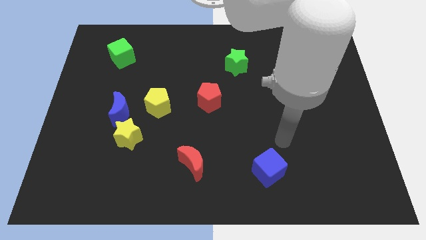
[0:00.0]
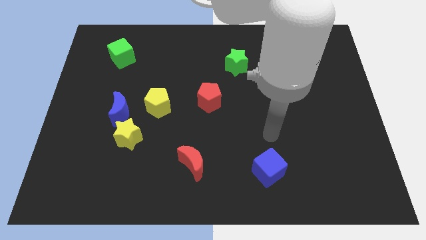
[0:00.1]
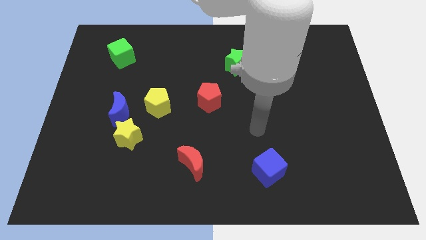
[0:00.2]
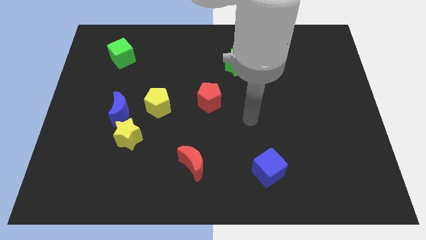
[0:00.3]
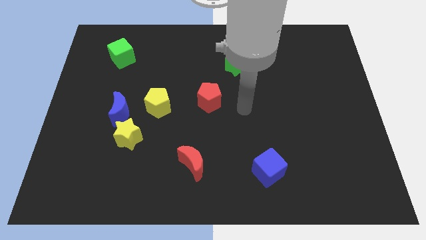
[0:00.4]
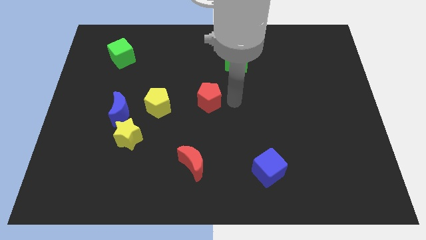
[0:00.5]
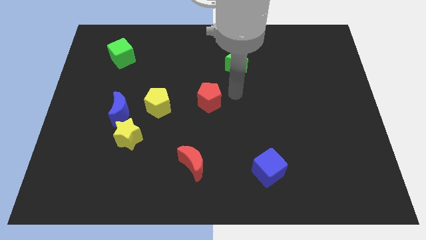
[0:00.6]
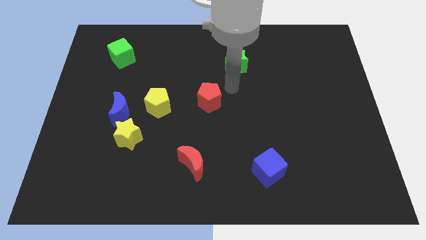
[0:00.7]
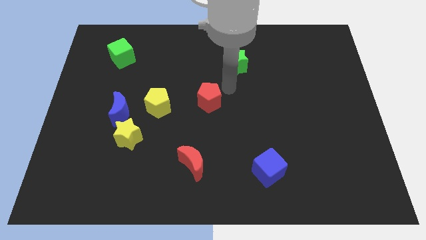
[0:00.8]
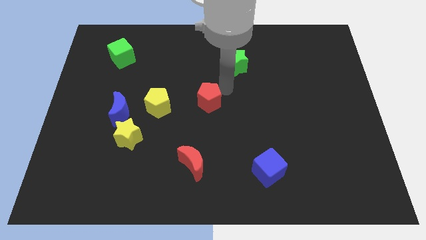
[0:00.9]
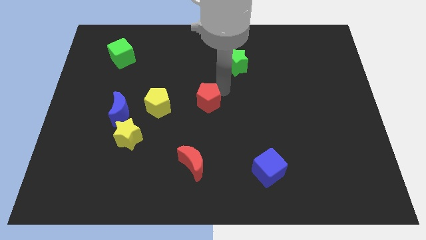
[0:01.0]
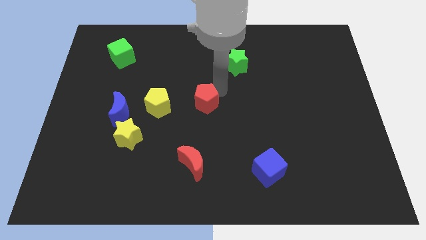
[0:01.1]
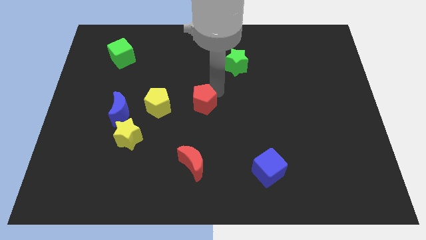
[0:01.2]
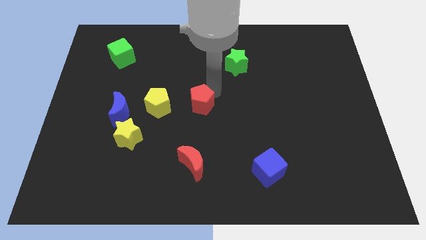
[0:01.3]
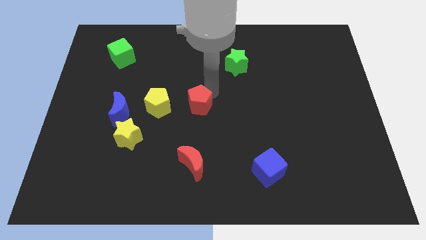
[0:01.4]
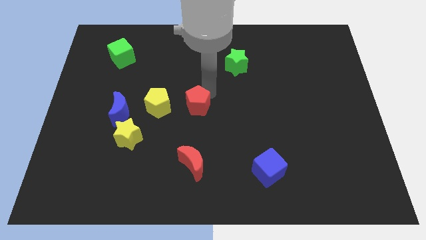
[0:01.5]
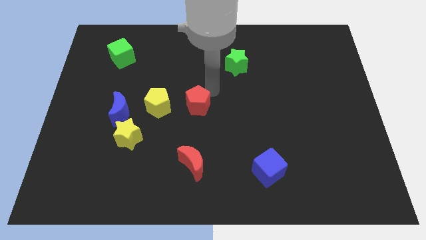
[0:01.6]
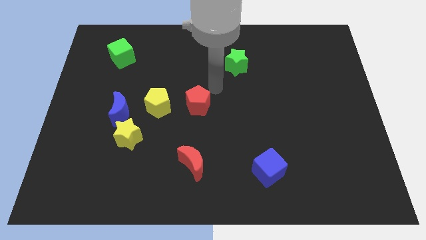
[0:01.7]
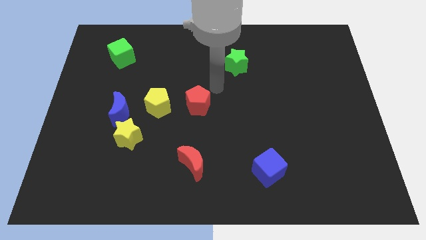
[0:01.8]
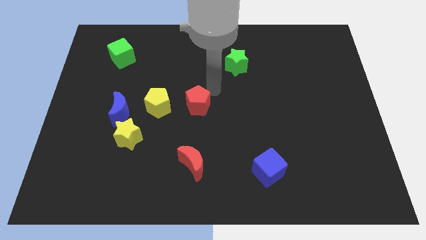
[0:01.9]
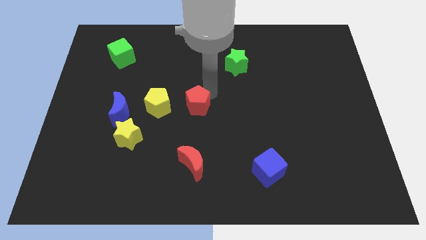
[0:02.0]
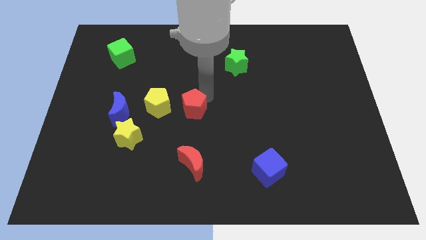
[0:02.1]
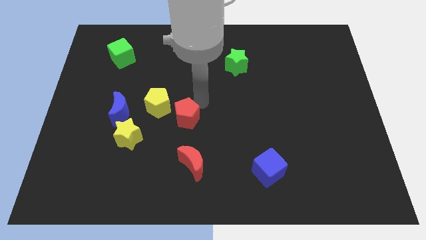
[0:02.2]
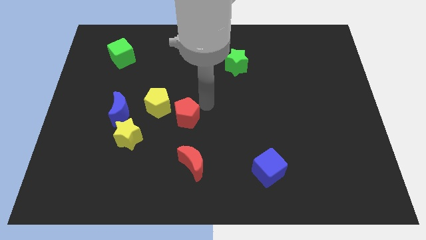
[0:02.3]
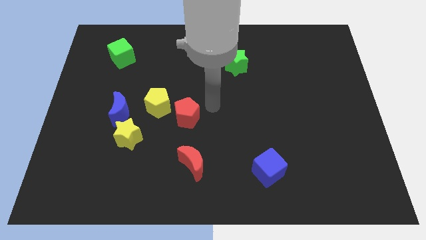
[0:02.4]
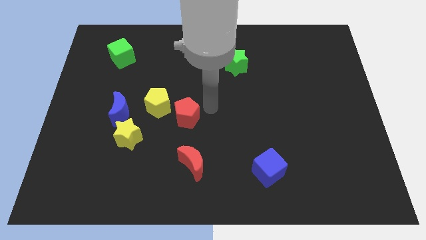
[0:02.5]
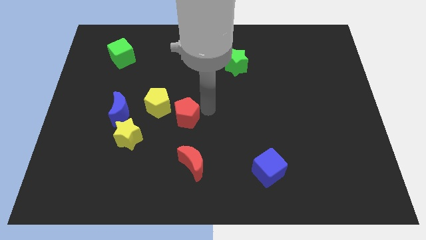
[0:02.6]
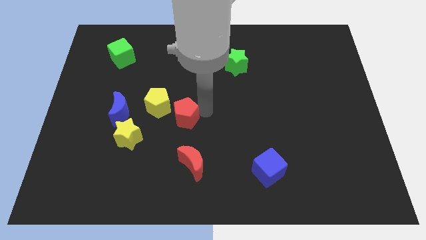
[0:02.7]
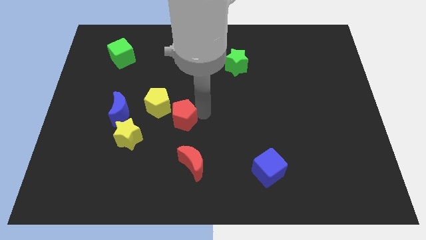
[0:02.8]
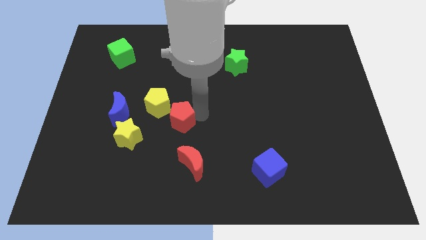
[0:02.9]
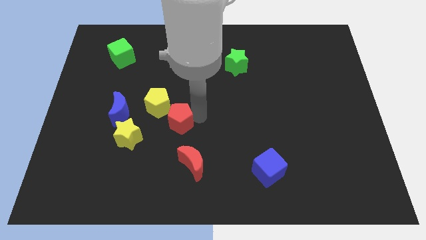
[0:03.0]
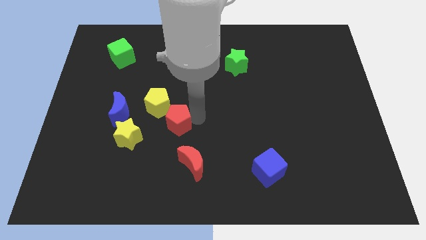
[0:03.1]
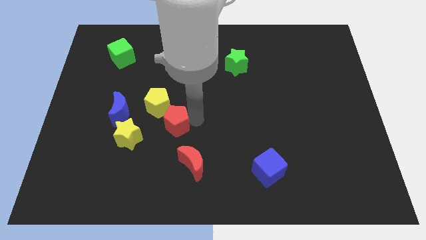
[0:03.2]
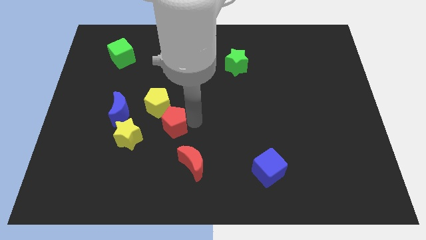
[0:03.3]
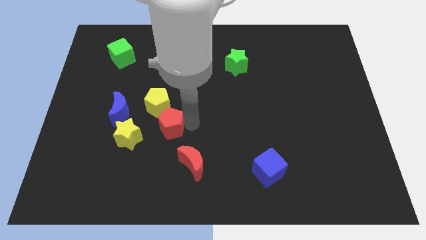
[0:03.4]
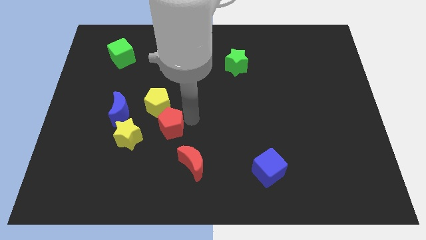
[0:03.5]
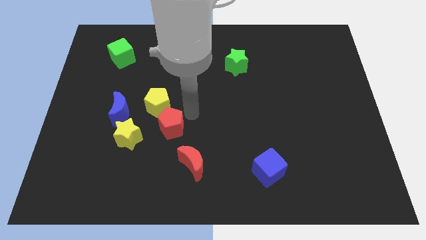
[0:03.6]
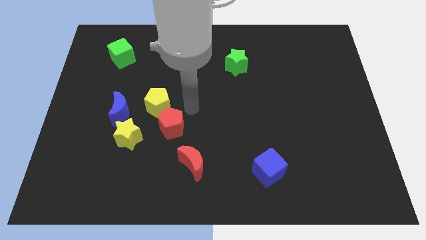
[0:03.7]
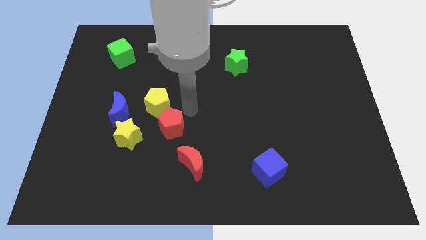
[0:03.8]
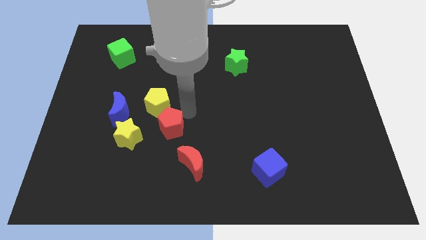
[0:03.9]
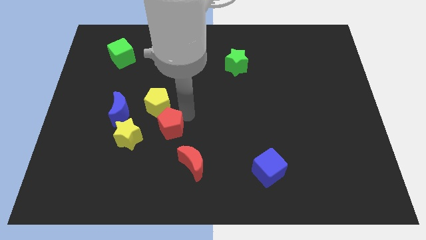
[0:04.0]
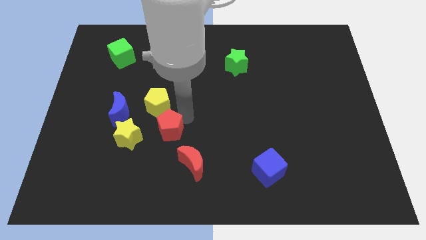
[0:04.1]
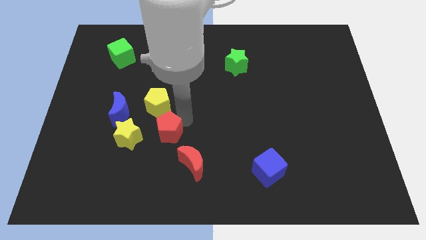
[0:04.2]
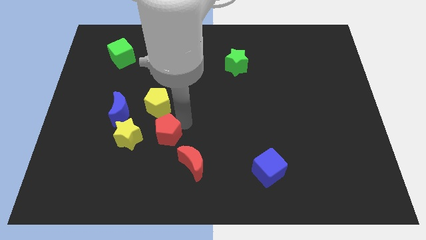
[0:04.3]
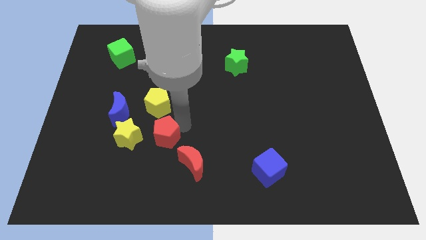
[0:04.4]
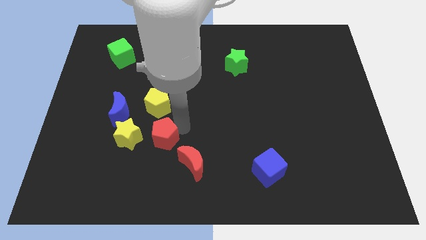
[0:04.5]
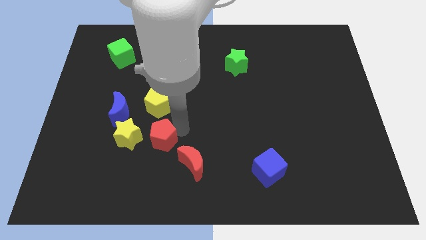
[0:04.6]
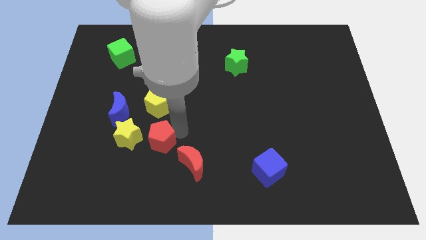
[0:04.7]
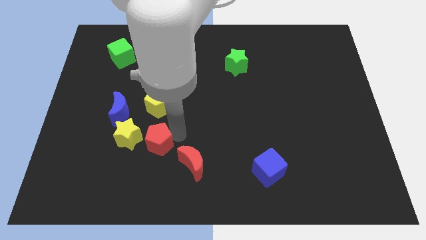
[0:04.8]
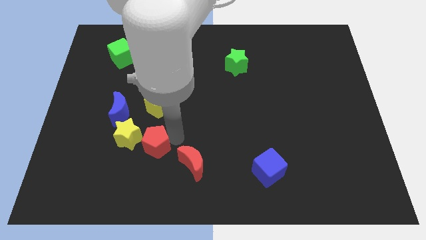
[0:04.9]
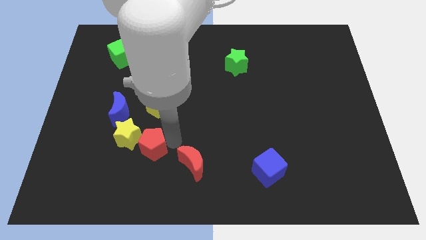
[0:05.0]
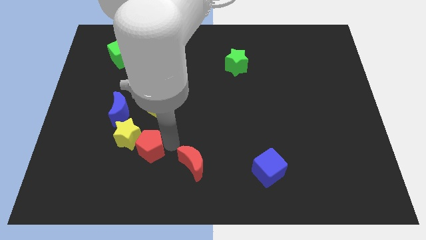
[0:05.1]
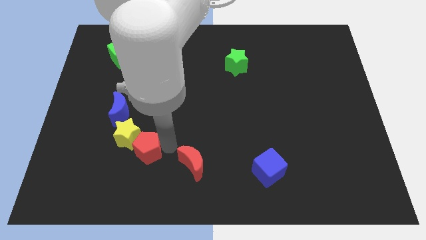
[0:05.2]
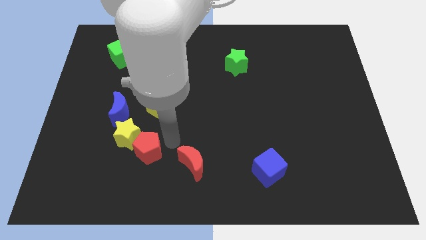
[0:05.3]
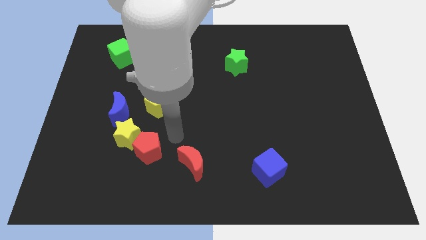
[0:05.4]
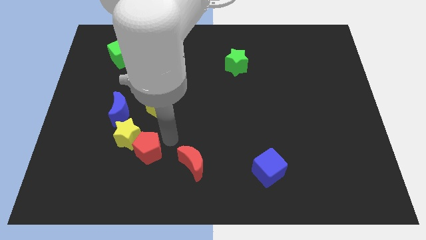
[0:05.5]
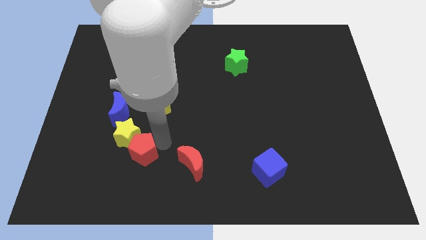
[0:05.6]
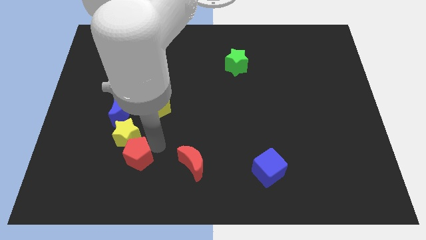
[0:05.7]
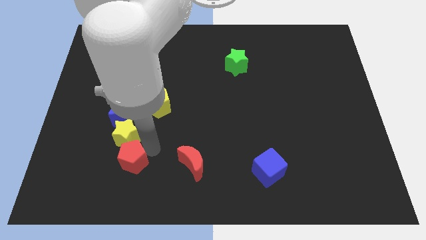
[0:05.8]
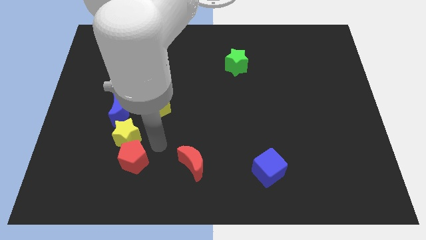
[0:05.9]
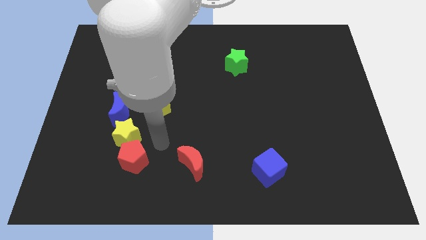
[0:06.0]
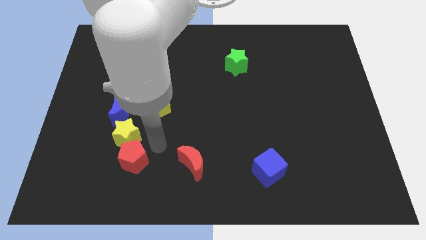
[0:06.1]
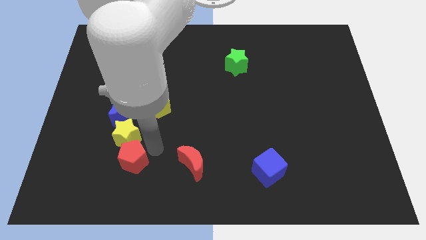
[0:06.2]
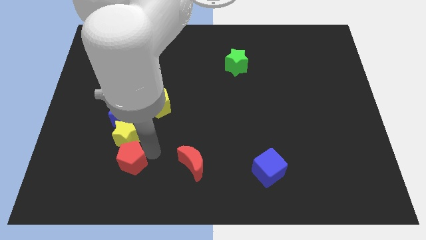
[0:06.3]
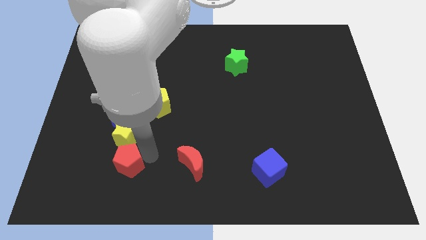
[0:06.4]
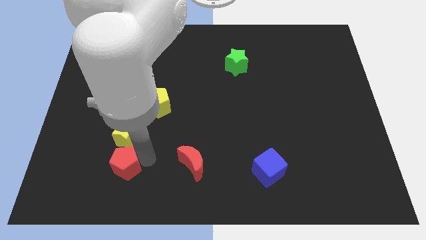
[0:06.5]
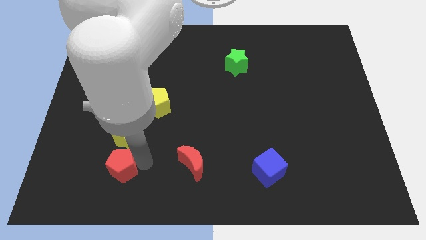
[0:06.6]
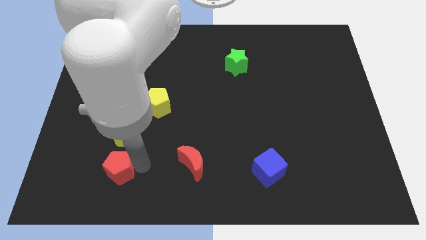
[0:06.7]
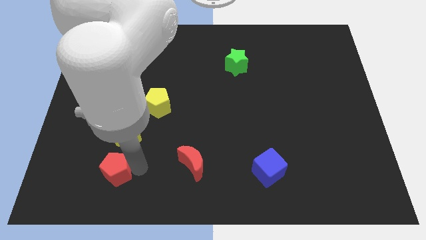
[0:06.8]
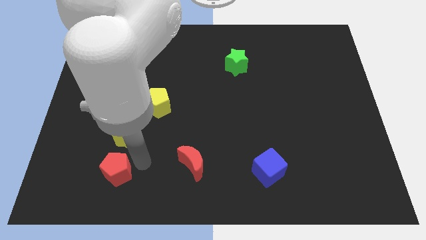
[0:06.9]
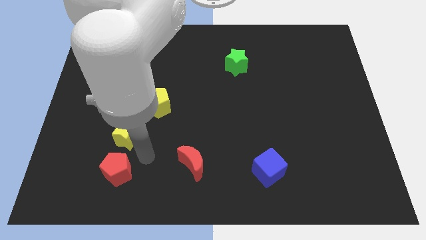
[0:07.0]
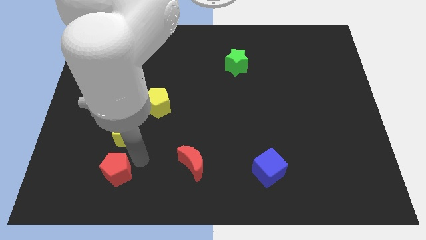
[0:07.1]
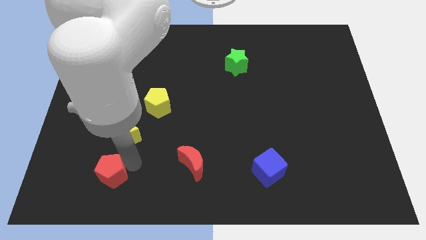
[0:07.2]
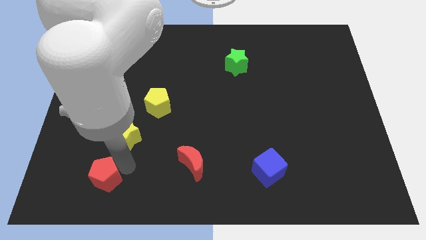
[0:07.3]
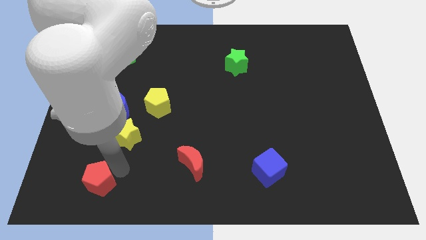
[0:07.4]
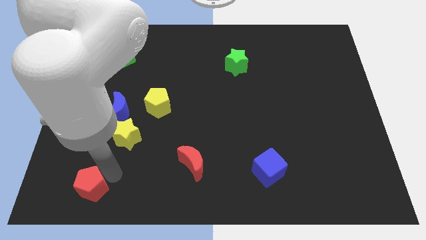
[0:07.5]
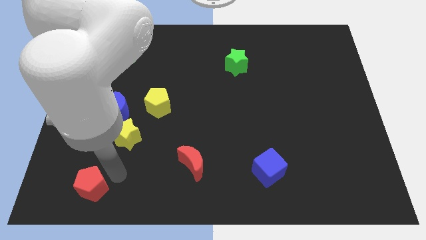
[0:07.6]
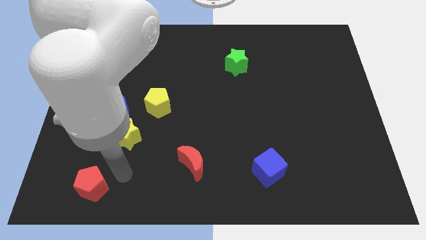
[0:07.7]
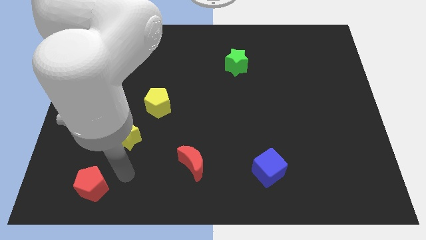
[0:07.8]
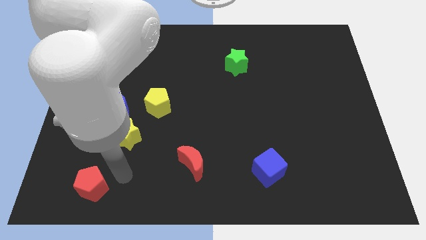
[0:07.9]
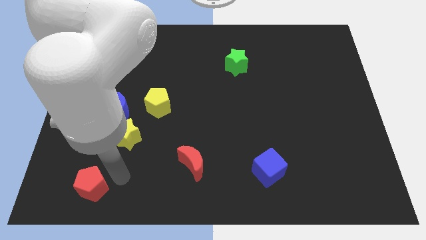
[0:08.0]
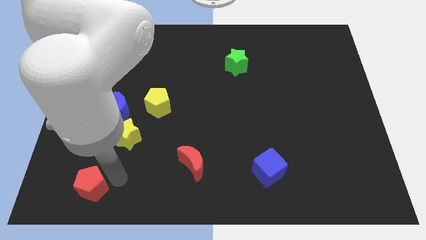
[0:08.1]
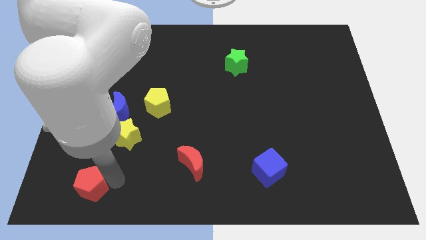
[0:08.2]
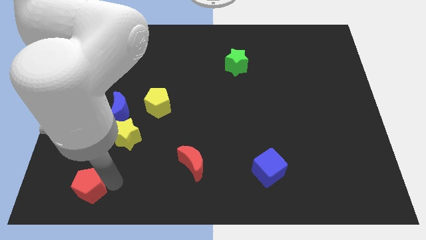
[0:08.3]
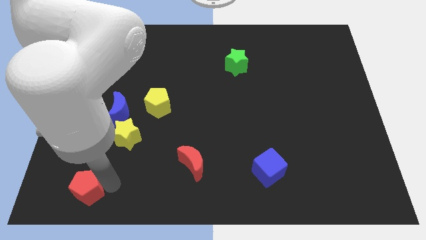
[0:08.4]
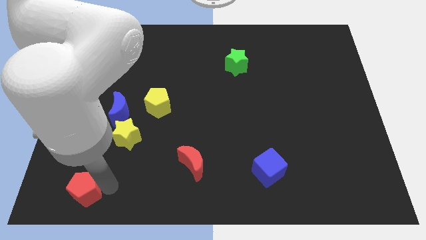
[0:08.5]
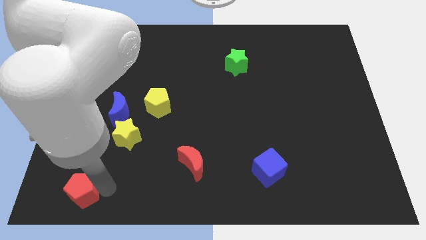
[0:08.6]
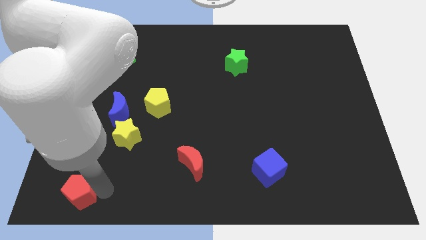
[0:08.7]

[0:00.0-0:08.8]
slide the red pentagon to the bottom left corner
